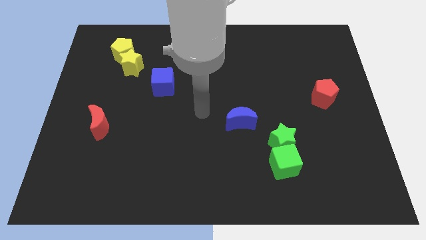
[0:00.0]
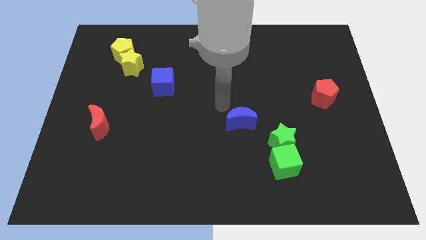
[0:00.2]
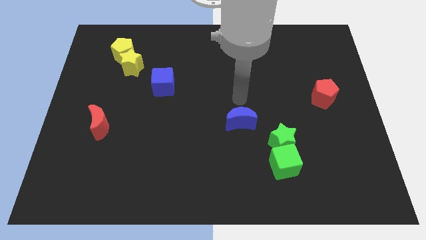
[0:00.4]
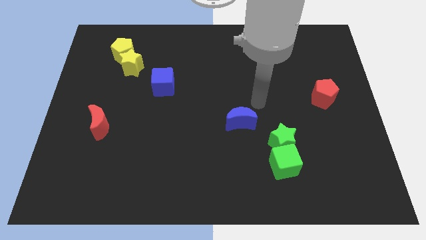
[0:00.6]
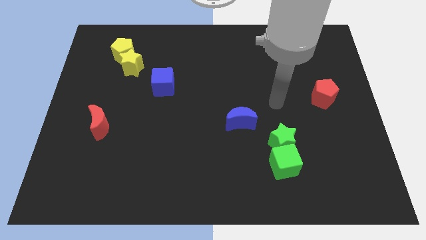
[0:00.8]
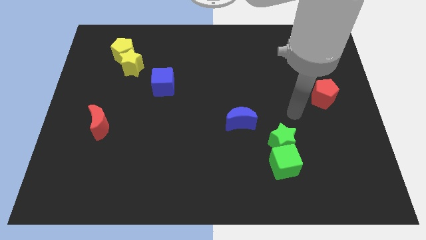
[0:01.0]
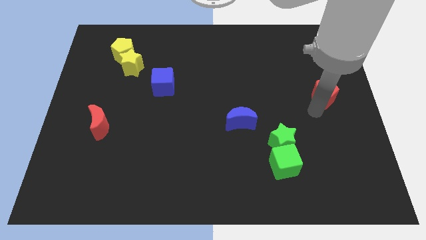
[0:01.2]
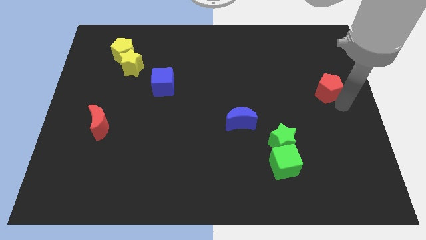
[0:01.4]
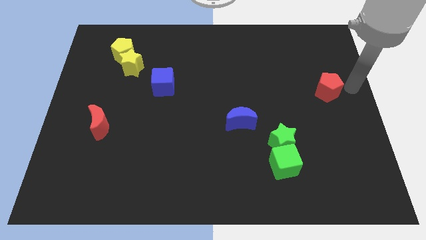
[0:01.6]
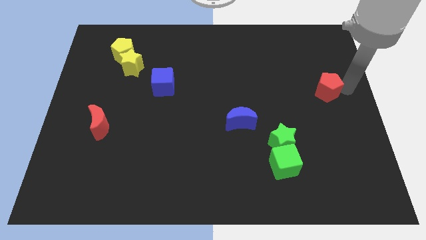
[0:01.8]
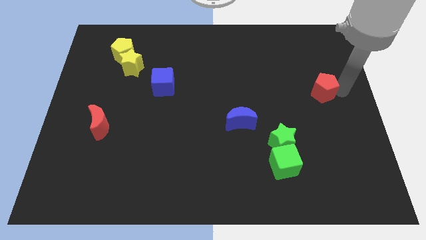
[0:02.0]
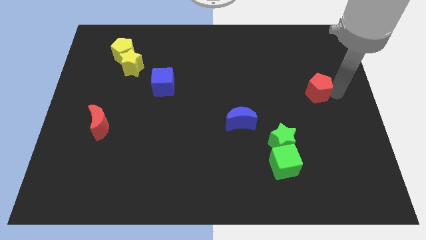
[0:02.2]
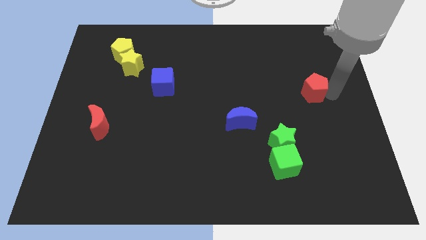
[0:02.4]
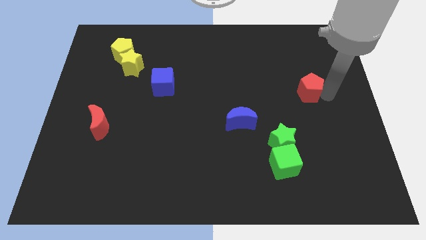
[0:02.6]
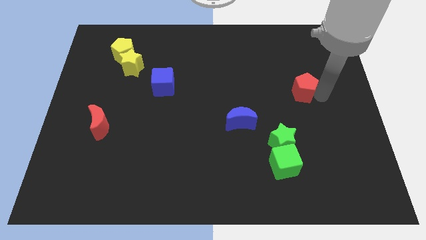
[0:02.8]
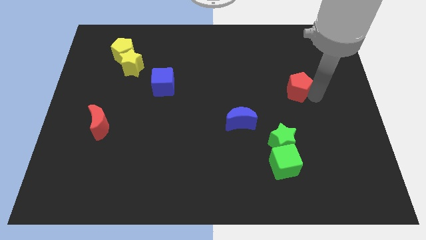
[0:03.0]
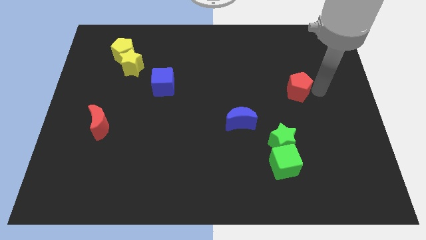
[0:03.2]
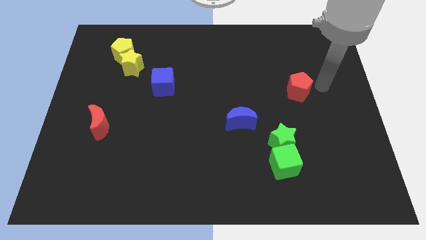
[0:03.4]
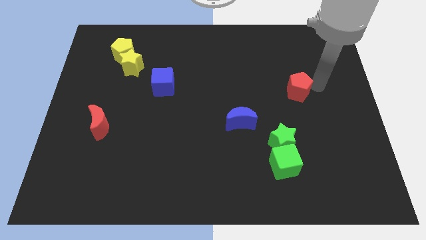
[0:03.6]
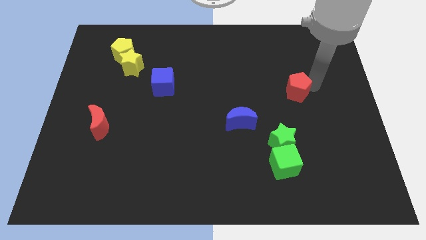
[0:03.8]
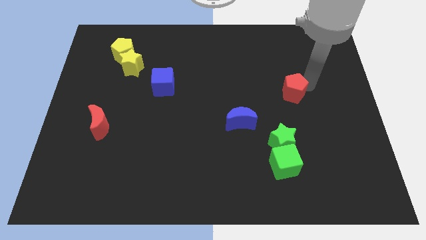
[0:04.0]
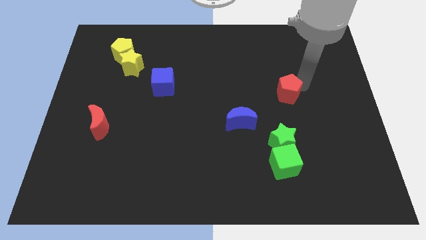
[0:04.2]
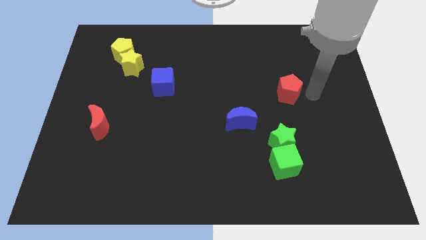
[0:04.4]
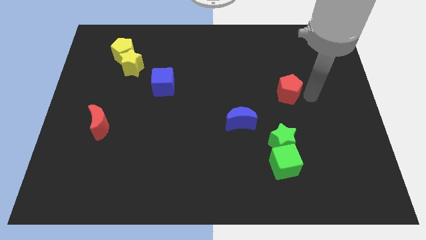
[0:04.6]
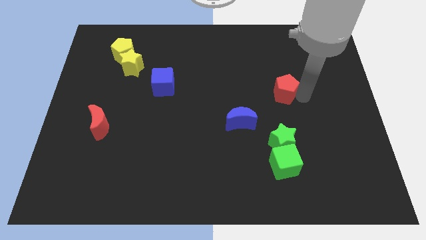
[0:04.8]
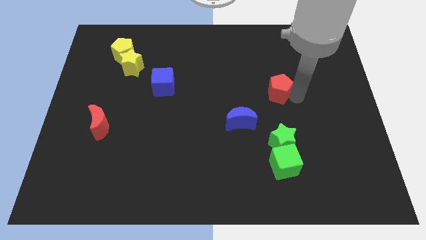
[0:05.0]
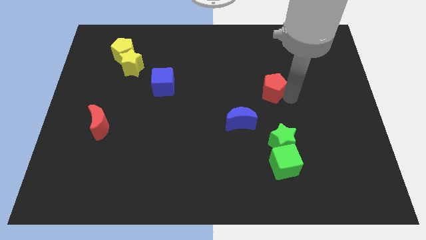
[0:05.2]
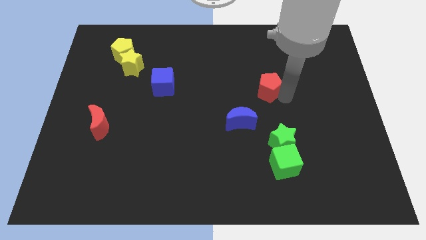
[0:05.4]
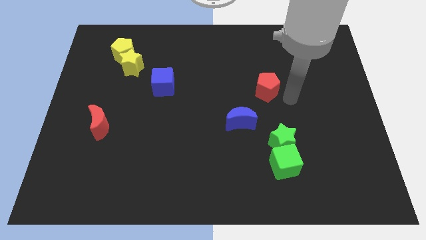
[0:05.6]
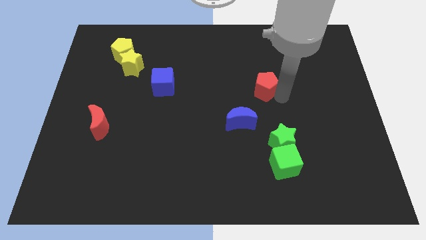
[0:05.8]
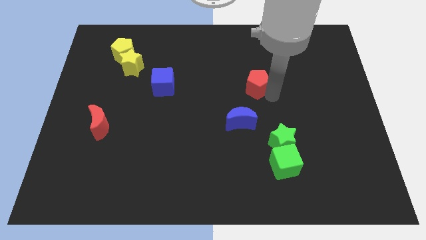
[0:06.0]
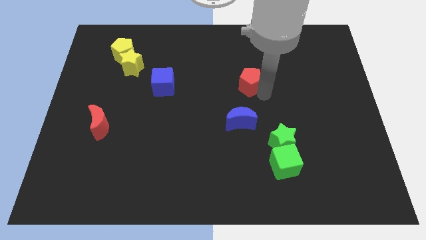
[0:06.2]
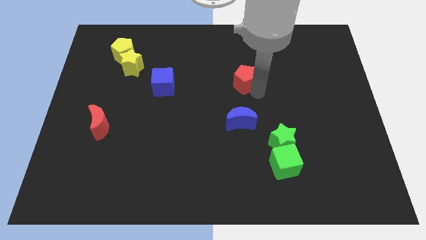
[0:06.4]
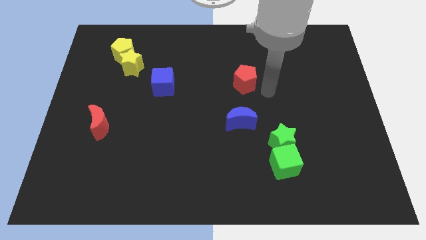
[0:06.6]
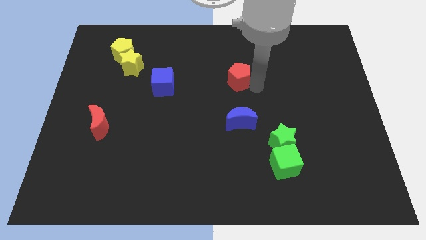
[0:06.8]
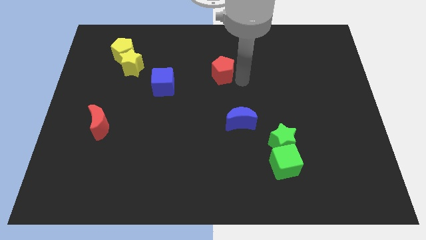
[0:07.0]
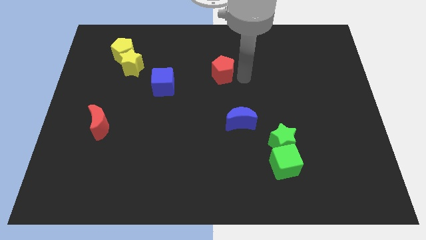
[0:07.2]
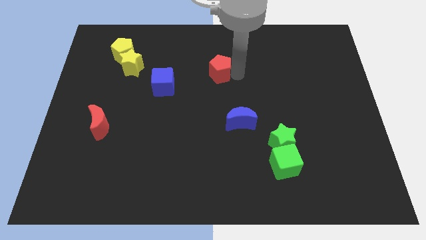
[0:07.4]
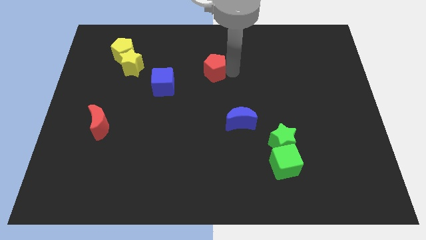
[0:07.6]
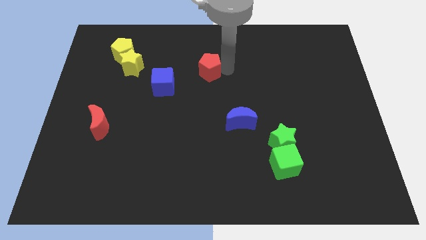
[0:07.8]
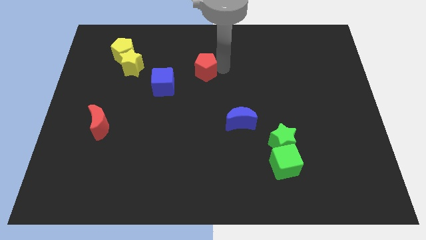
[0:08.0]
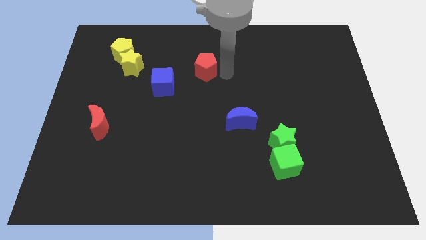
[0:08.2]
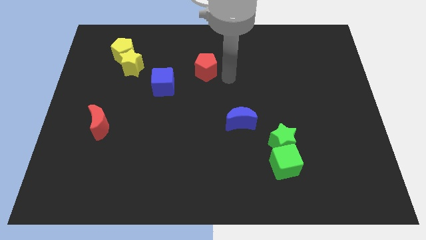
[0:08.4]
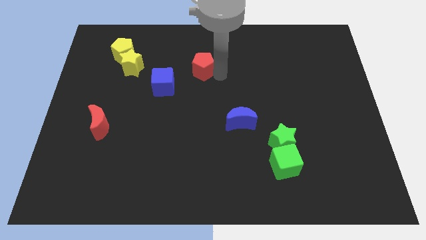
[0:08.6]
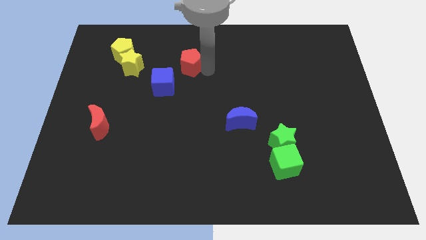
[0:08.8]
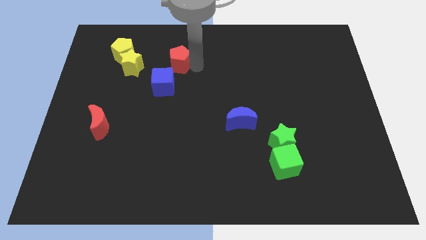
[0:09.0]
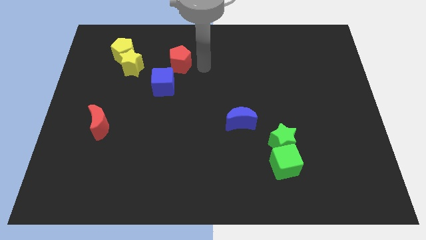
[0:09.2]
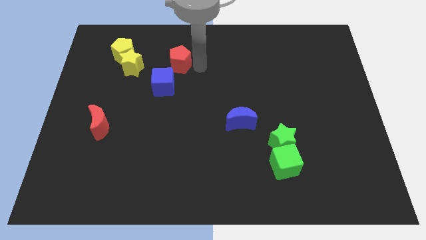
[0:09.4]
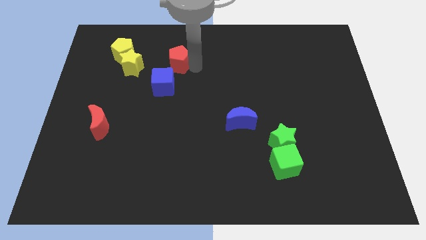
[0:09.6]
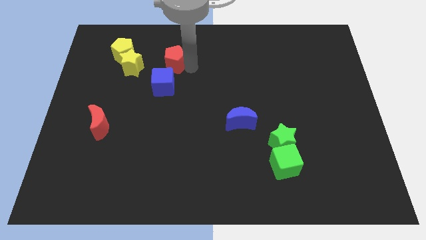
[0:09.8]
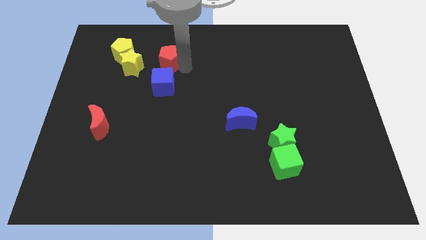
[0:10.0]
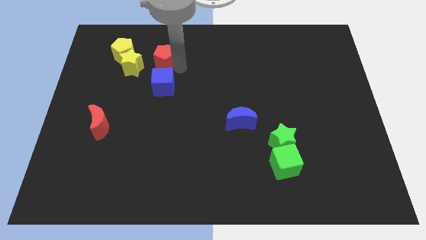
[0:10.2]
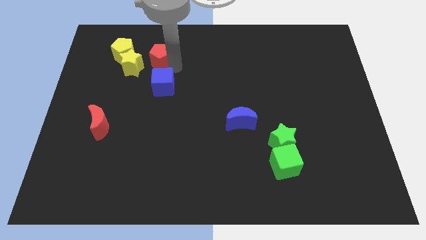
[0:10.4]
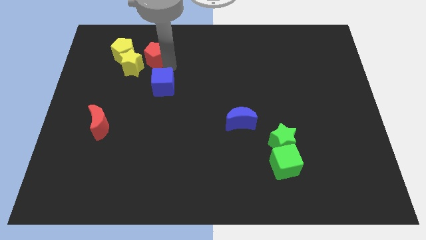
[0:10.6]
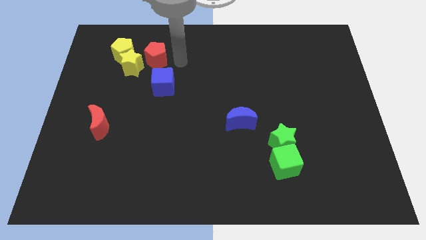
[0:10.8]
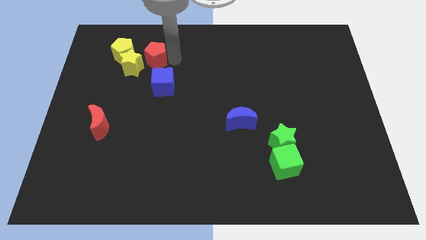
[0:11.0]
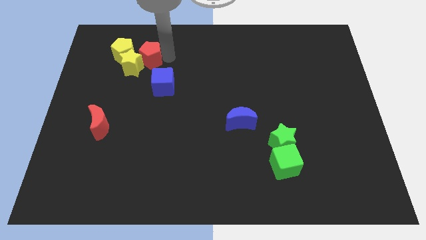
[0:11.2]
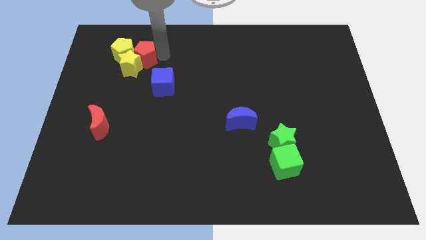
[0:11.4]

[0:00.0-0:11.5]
move the red pentagon next to the yellow pentagon

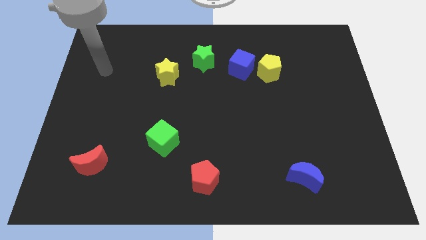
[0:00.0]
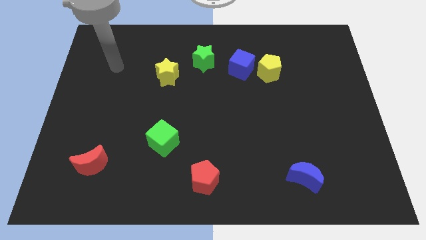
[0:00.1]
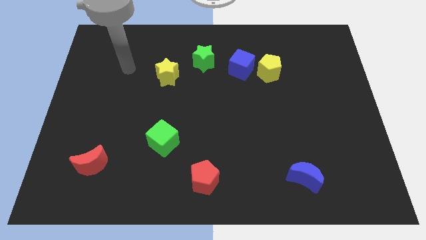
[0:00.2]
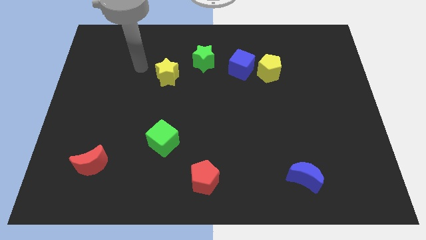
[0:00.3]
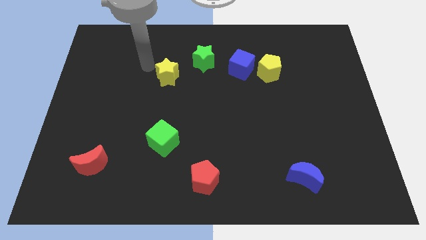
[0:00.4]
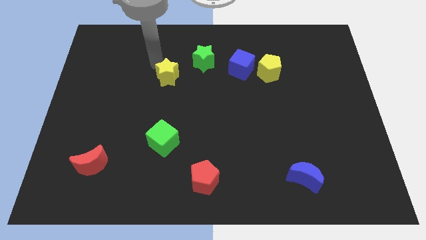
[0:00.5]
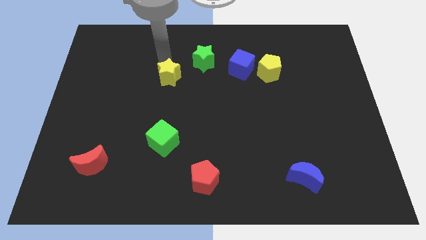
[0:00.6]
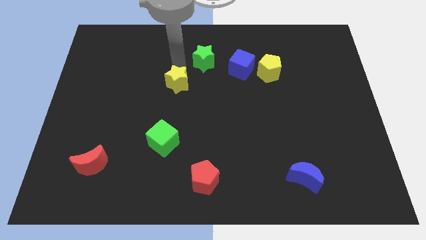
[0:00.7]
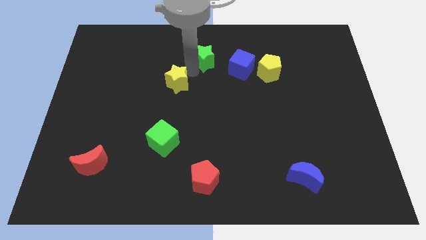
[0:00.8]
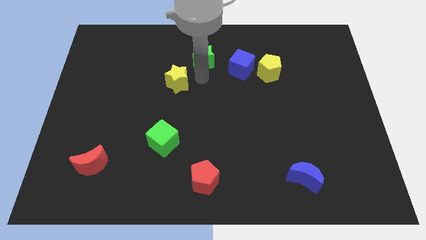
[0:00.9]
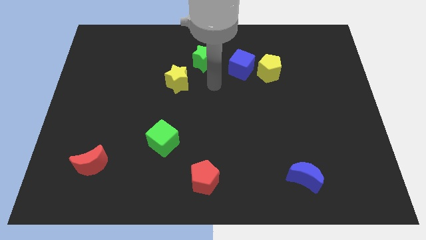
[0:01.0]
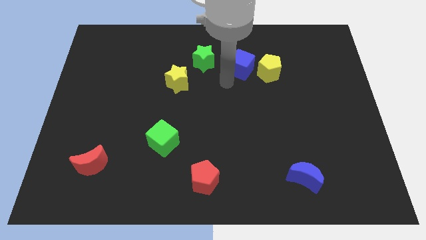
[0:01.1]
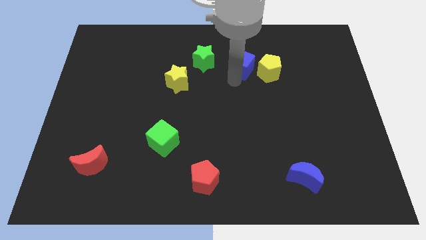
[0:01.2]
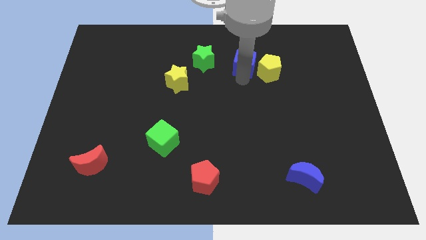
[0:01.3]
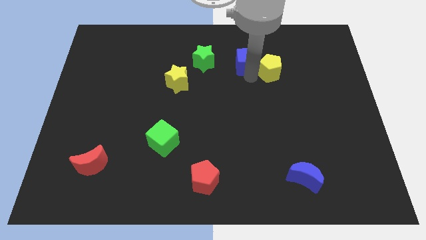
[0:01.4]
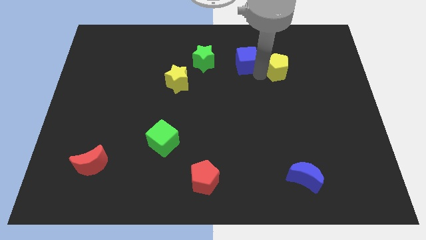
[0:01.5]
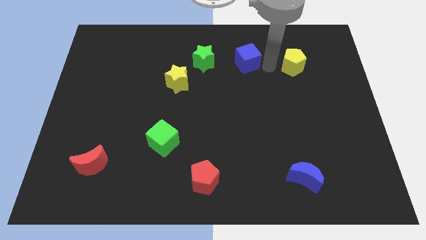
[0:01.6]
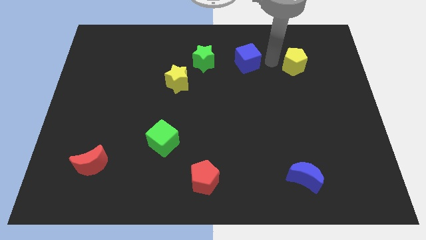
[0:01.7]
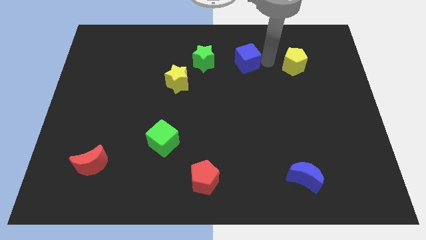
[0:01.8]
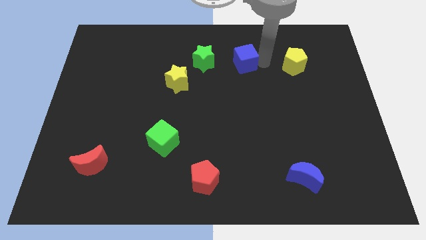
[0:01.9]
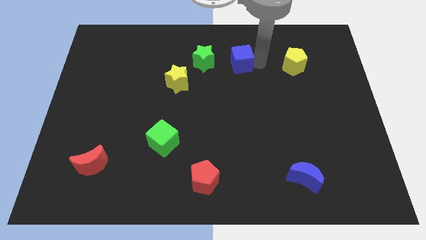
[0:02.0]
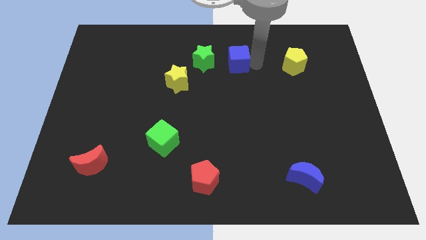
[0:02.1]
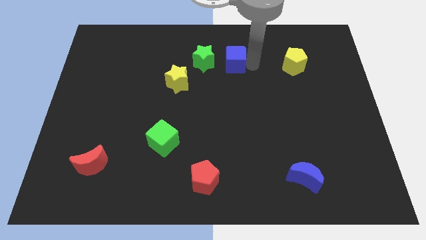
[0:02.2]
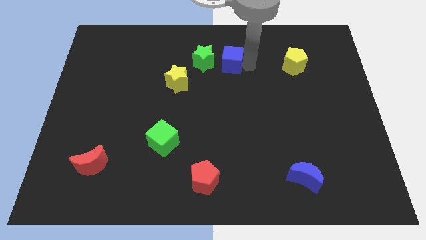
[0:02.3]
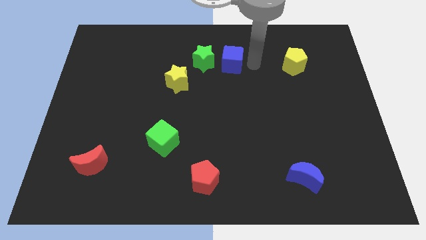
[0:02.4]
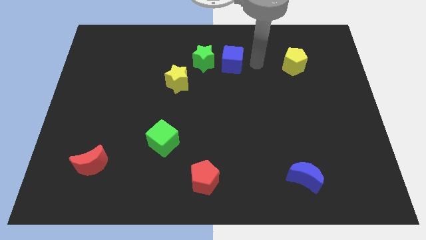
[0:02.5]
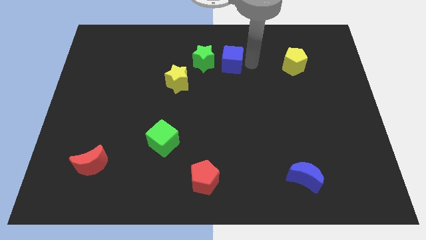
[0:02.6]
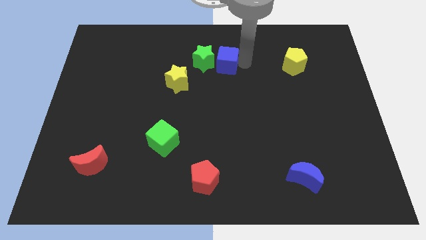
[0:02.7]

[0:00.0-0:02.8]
push the blue cube towards the green star

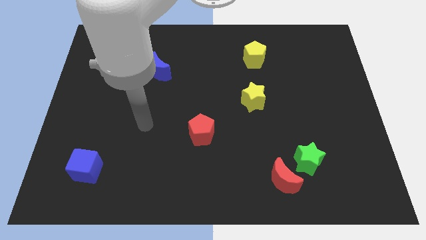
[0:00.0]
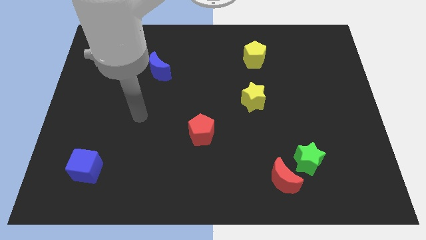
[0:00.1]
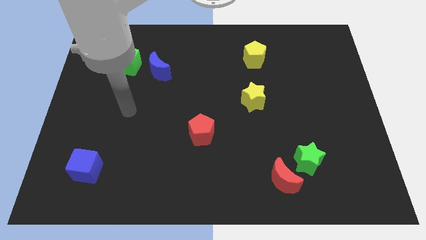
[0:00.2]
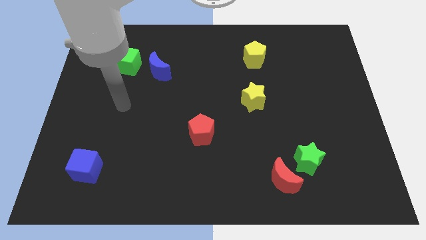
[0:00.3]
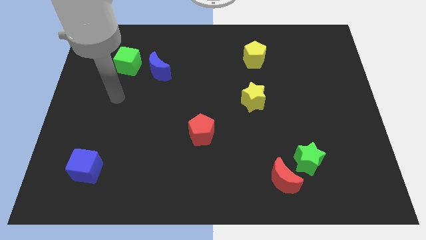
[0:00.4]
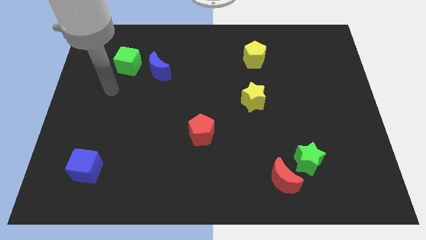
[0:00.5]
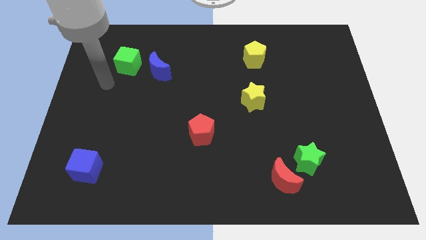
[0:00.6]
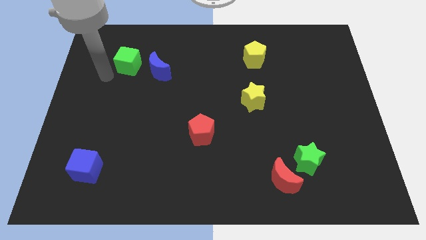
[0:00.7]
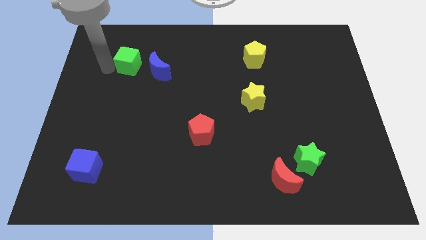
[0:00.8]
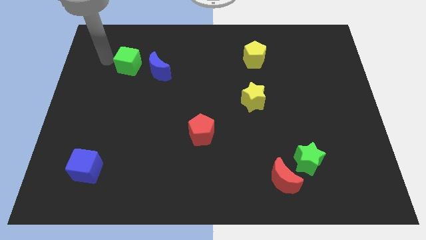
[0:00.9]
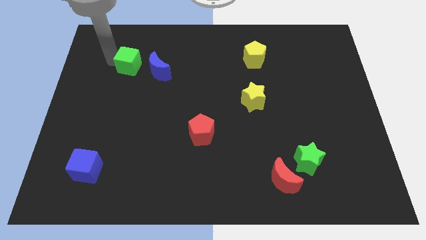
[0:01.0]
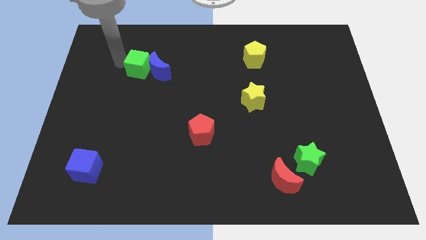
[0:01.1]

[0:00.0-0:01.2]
push the green cube towards the blue moon
